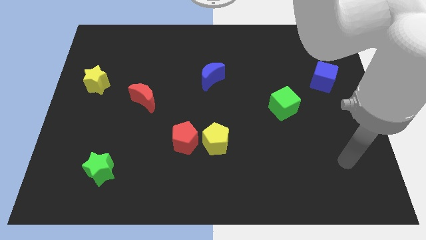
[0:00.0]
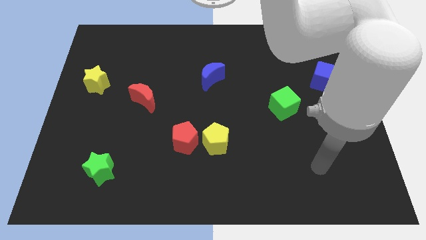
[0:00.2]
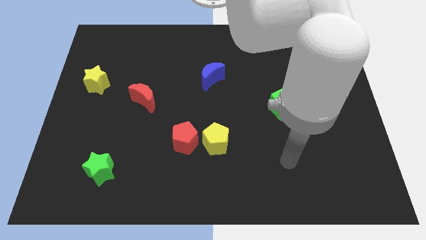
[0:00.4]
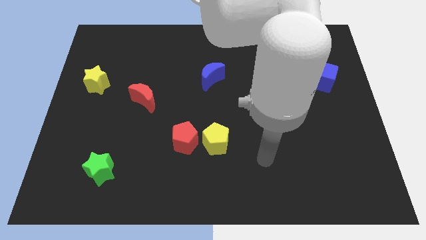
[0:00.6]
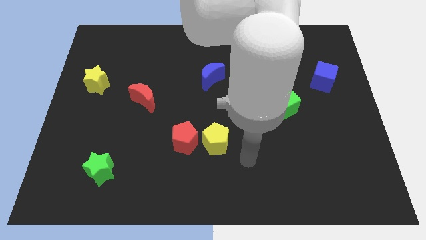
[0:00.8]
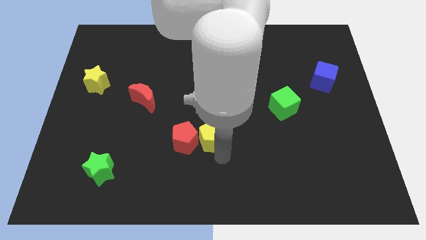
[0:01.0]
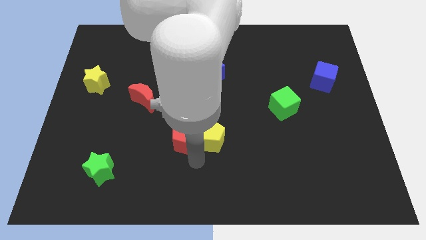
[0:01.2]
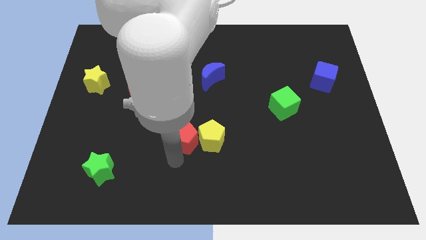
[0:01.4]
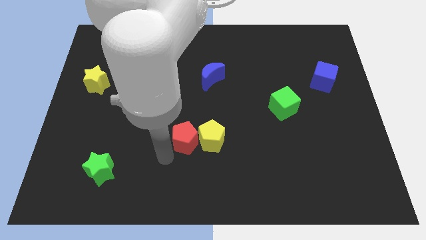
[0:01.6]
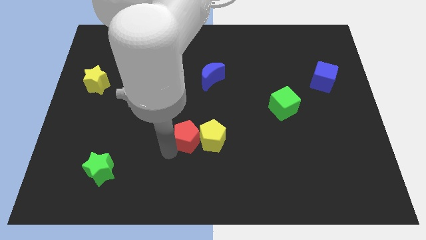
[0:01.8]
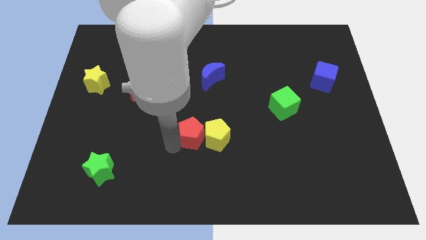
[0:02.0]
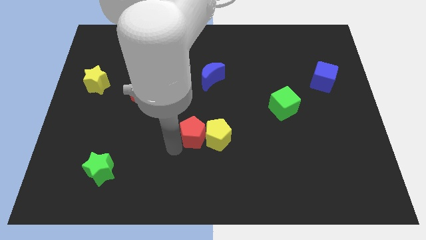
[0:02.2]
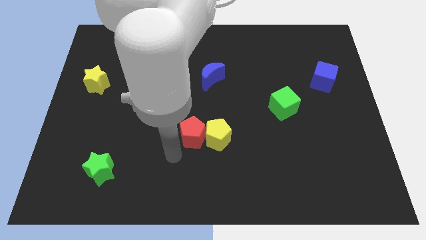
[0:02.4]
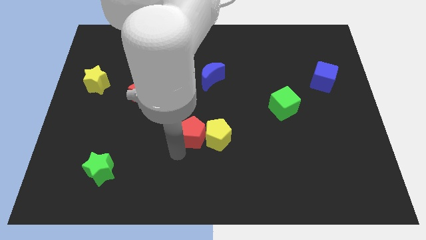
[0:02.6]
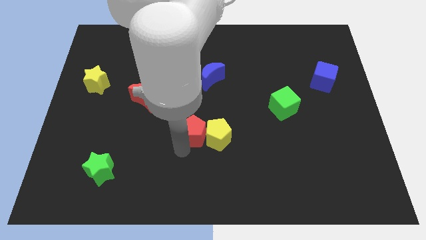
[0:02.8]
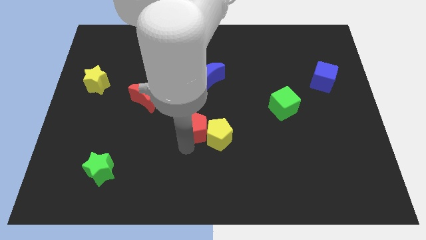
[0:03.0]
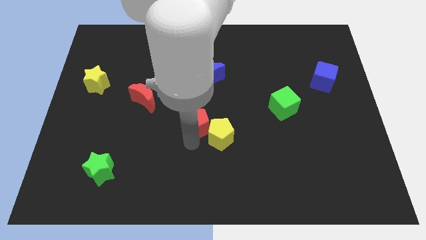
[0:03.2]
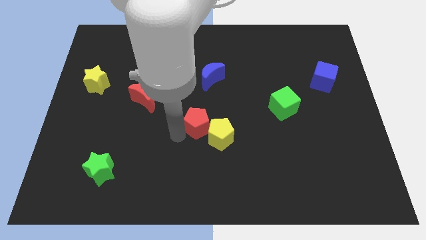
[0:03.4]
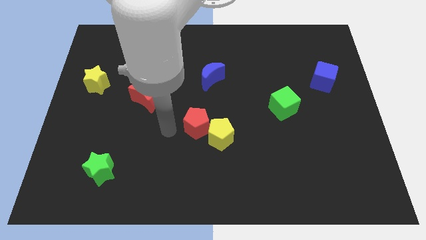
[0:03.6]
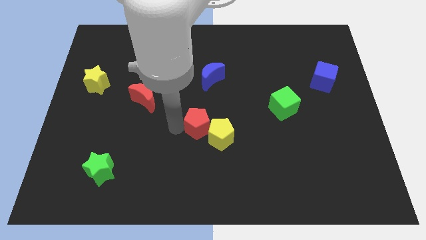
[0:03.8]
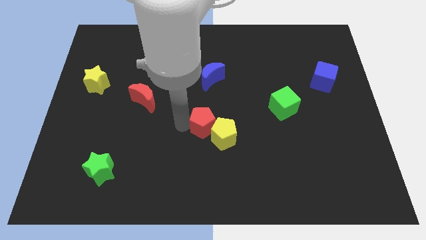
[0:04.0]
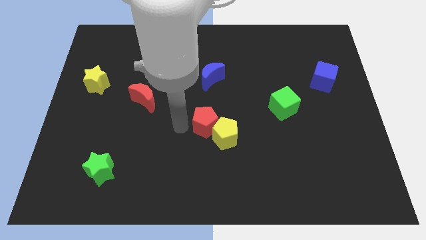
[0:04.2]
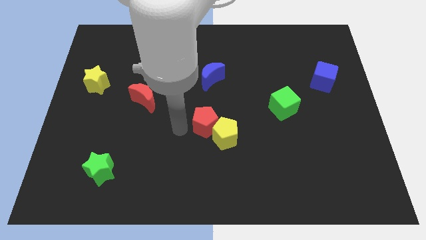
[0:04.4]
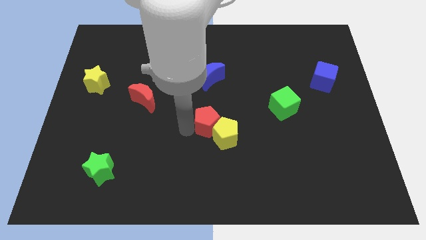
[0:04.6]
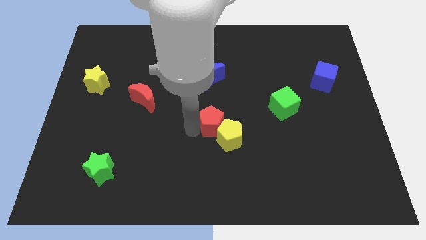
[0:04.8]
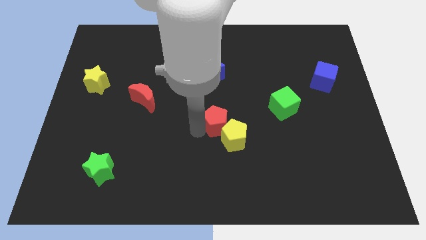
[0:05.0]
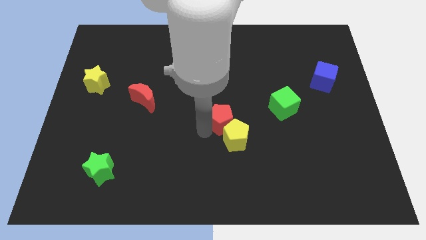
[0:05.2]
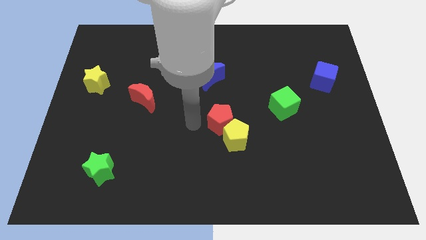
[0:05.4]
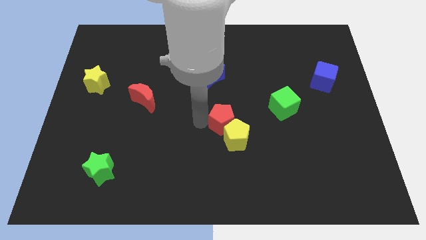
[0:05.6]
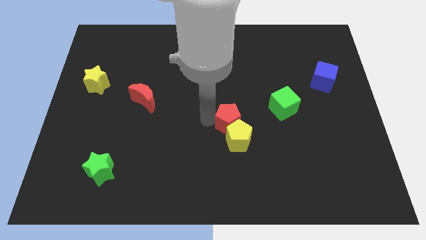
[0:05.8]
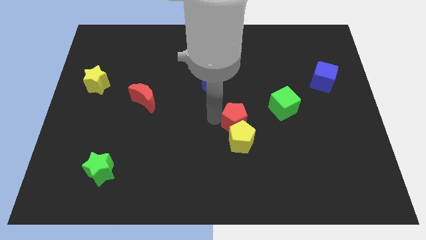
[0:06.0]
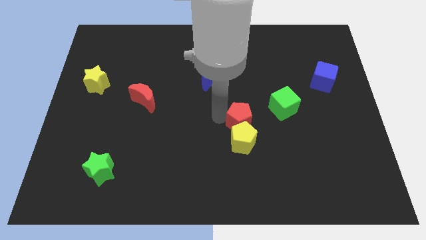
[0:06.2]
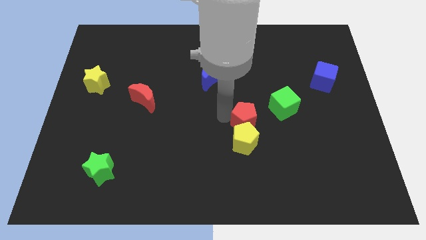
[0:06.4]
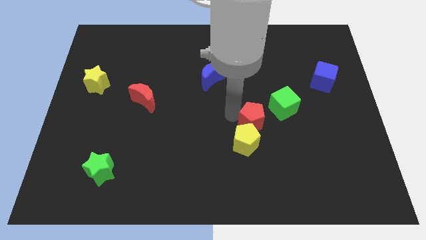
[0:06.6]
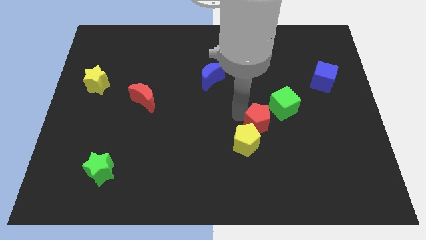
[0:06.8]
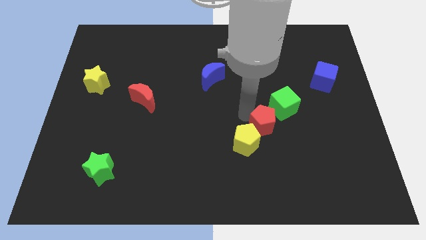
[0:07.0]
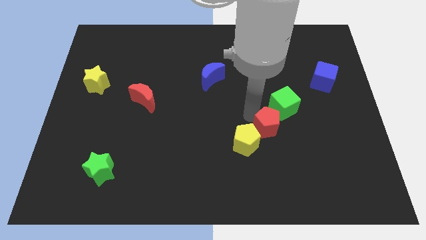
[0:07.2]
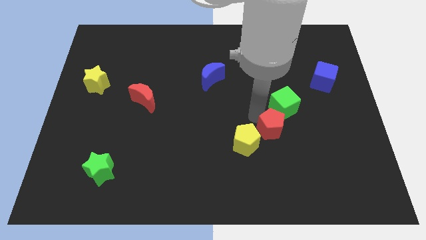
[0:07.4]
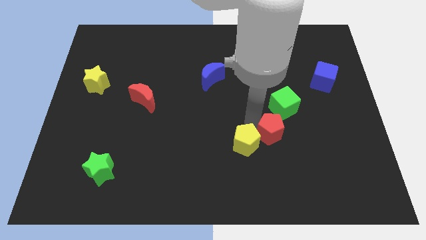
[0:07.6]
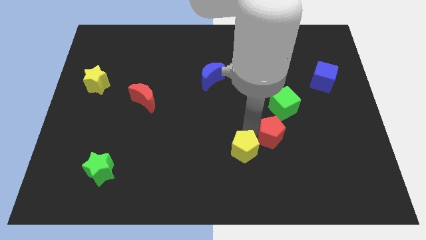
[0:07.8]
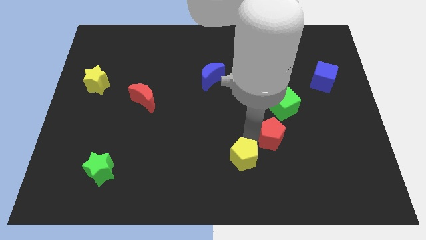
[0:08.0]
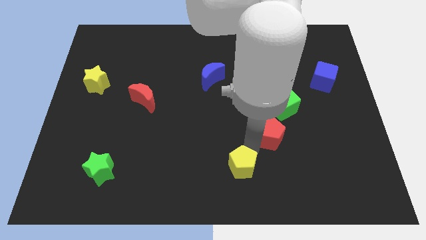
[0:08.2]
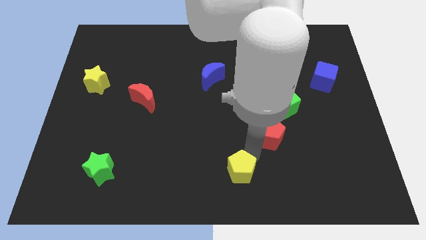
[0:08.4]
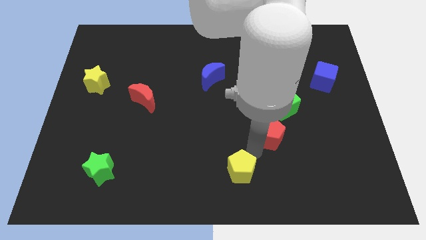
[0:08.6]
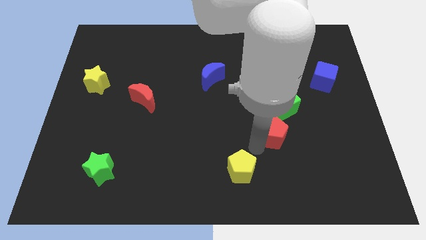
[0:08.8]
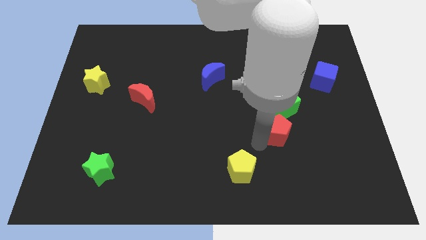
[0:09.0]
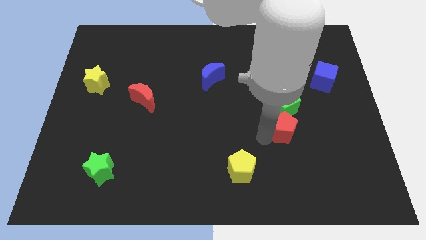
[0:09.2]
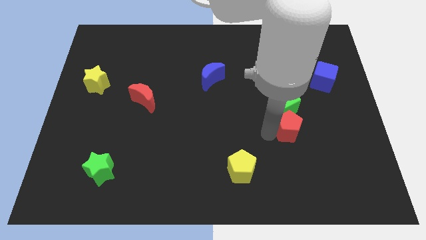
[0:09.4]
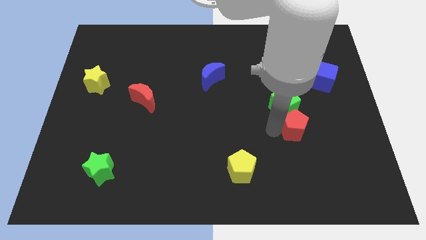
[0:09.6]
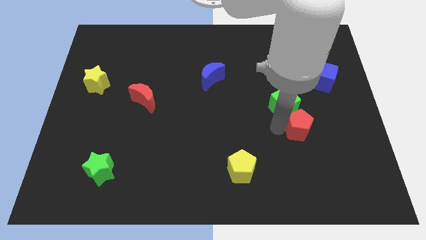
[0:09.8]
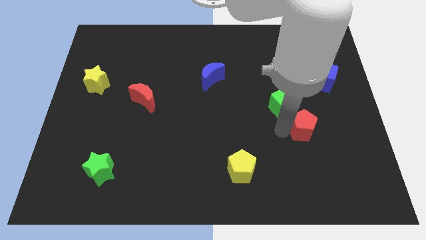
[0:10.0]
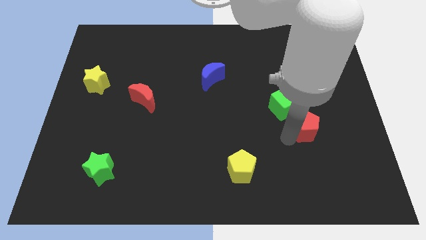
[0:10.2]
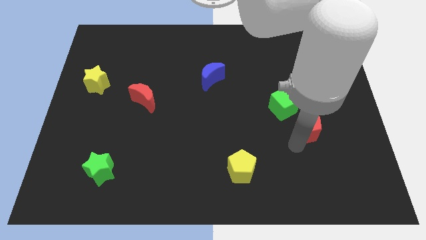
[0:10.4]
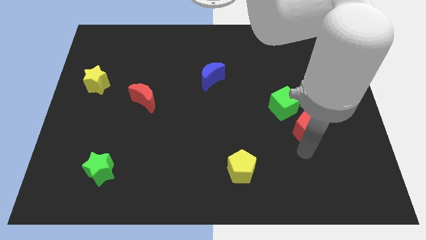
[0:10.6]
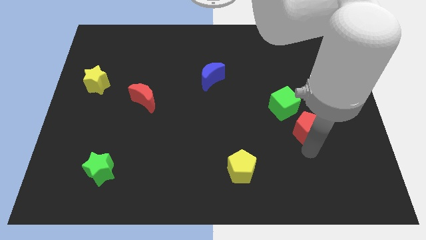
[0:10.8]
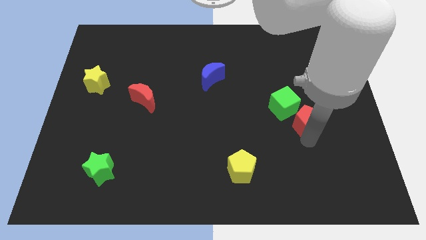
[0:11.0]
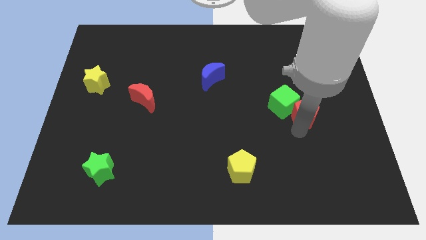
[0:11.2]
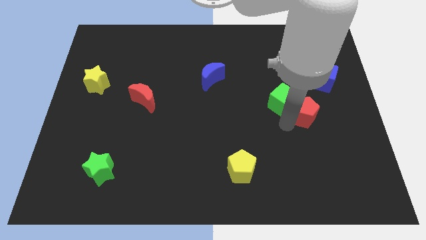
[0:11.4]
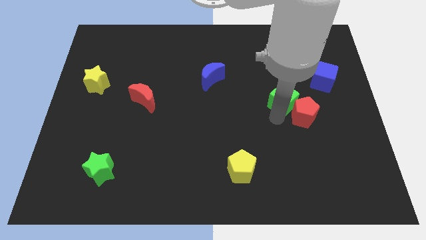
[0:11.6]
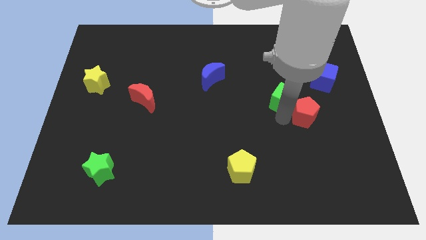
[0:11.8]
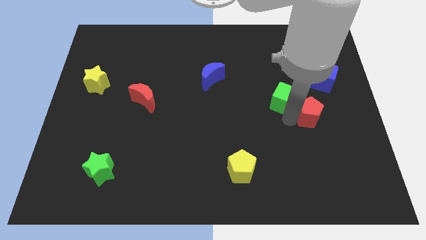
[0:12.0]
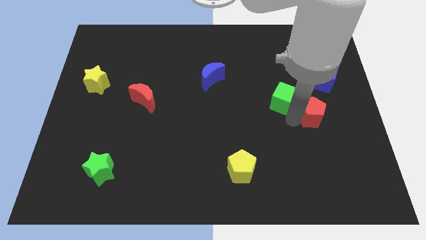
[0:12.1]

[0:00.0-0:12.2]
push the red pentagon below the blue cube

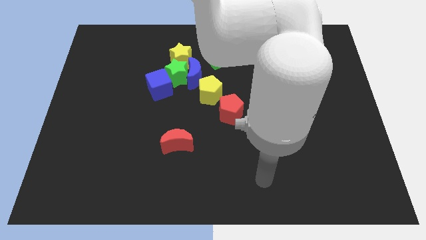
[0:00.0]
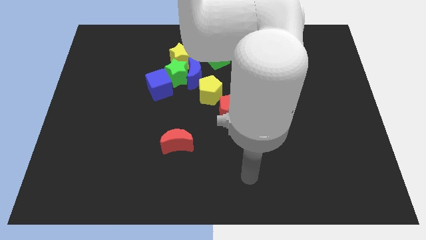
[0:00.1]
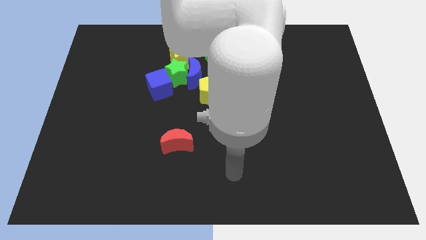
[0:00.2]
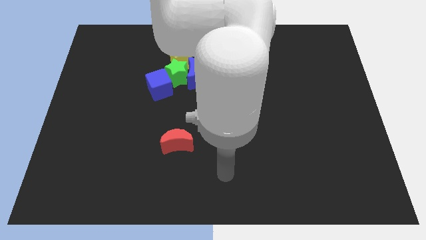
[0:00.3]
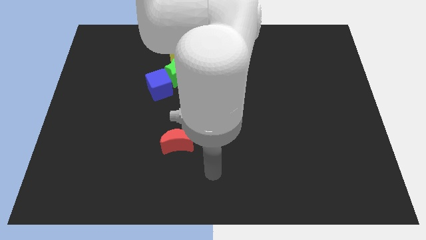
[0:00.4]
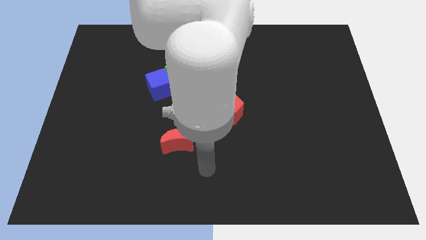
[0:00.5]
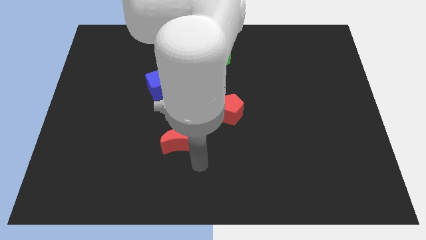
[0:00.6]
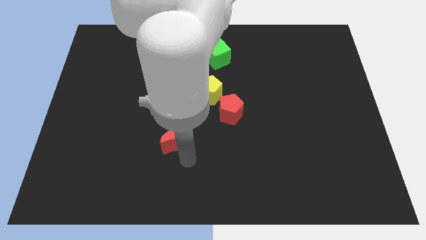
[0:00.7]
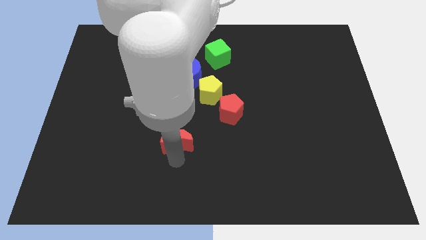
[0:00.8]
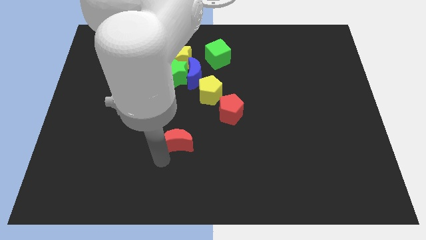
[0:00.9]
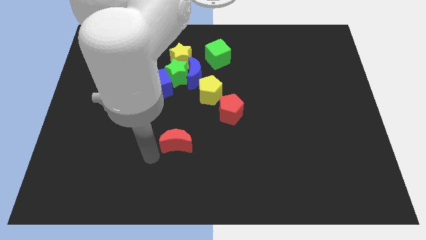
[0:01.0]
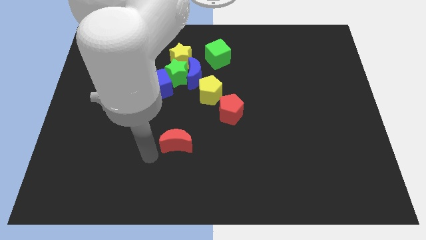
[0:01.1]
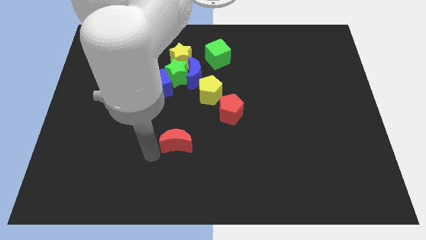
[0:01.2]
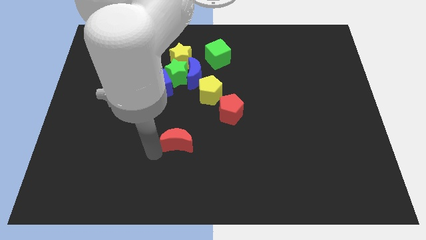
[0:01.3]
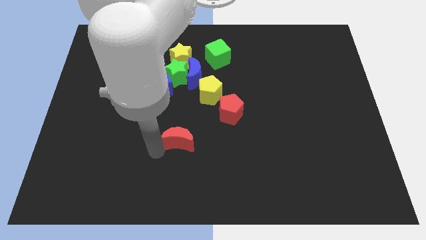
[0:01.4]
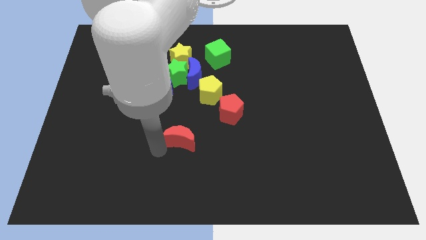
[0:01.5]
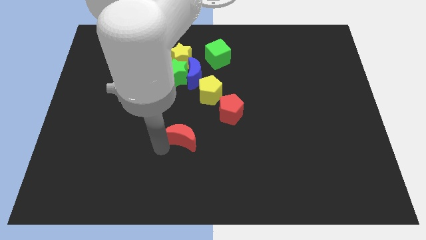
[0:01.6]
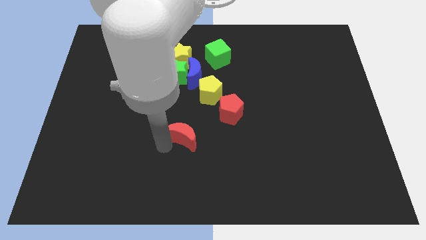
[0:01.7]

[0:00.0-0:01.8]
push the red moon diagonally down and to the left of the red pentagon
